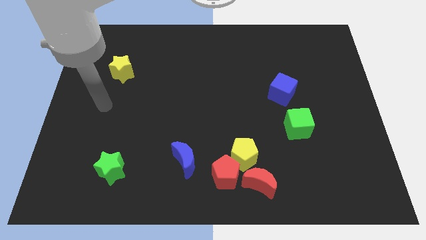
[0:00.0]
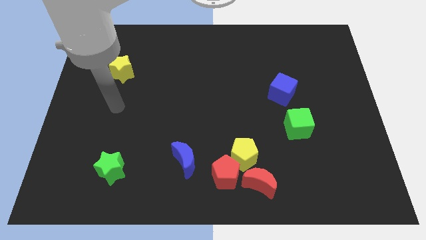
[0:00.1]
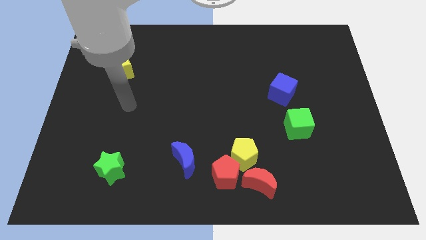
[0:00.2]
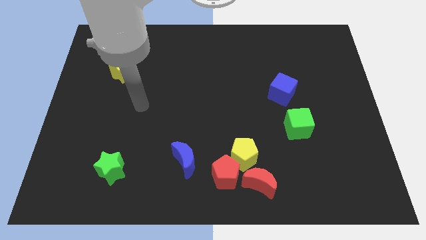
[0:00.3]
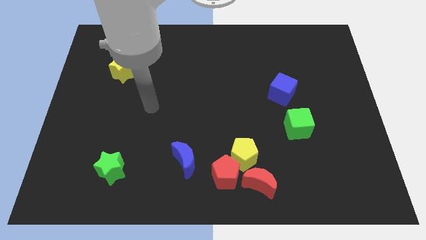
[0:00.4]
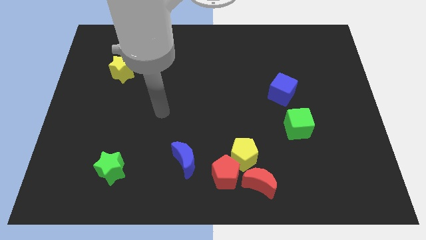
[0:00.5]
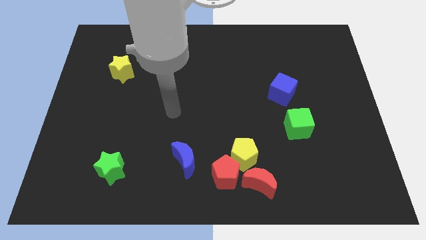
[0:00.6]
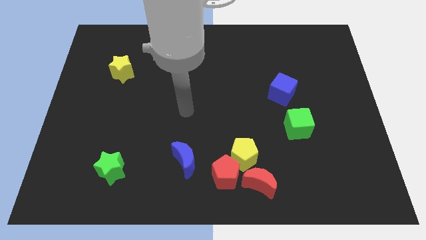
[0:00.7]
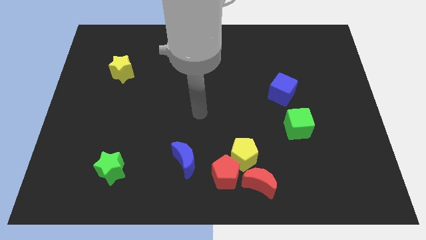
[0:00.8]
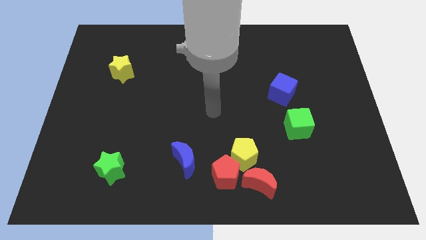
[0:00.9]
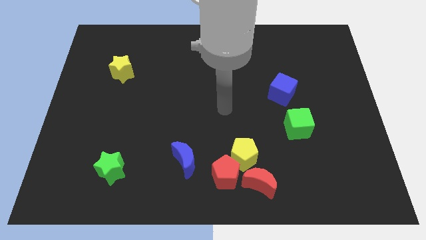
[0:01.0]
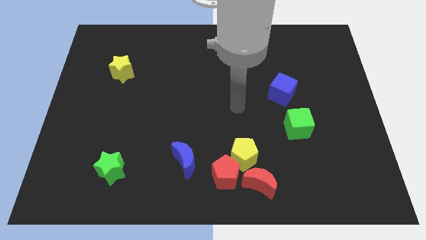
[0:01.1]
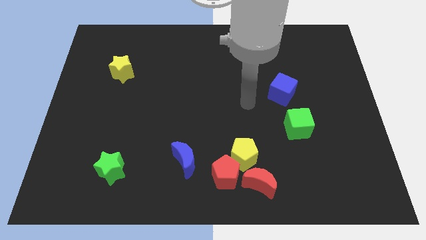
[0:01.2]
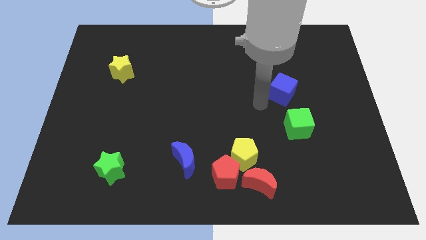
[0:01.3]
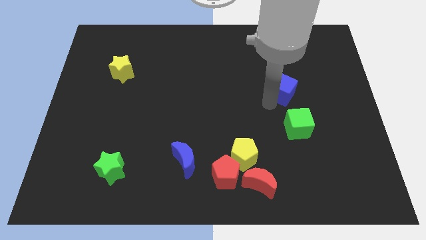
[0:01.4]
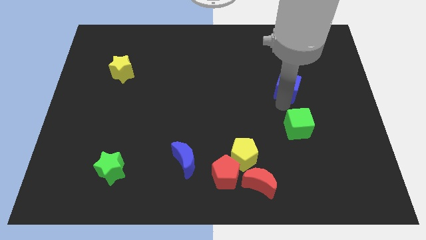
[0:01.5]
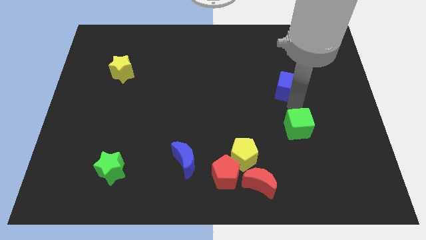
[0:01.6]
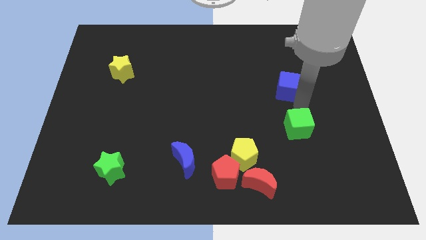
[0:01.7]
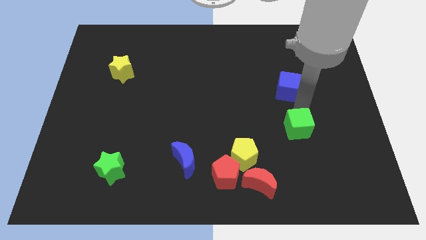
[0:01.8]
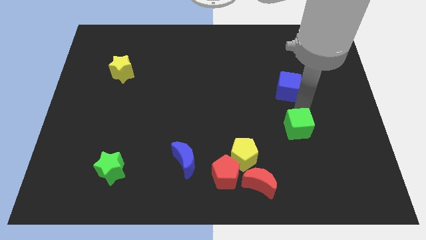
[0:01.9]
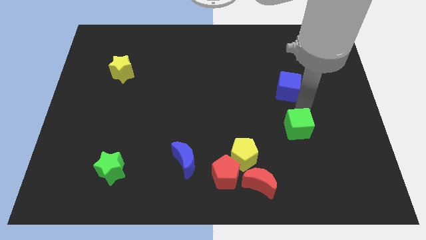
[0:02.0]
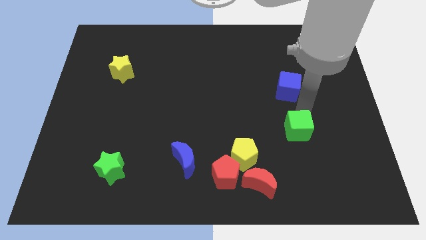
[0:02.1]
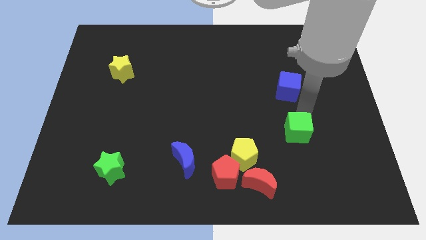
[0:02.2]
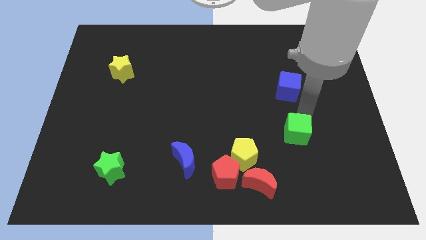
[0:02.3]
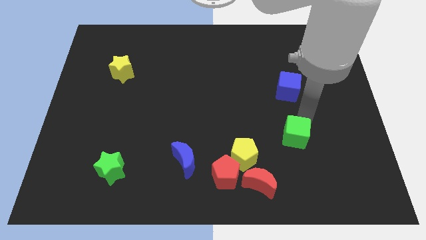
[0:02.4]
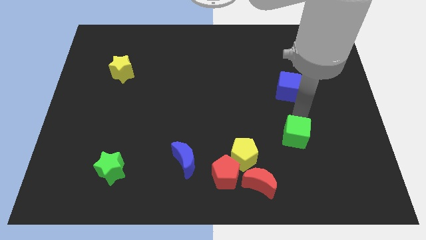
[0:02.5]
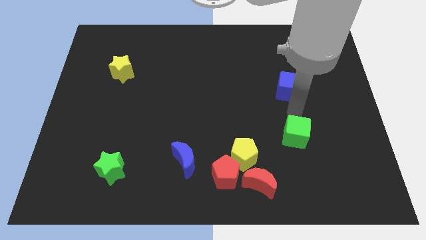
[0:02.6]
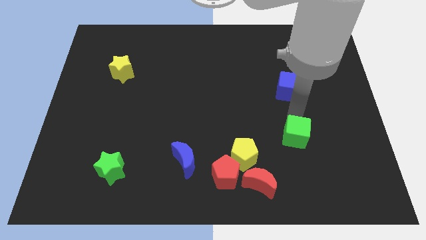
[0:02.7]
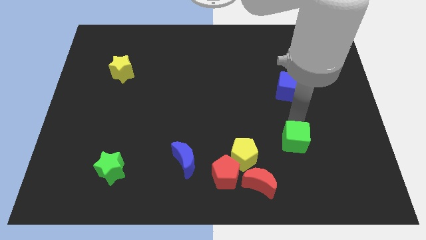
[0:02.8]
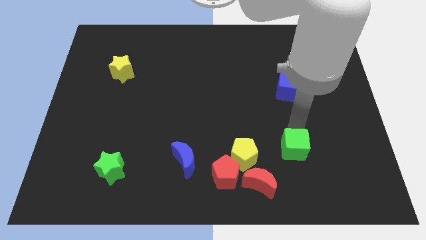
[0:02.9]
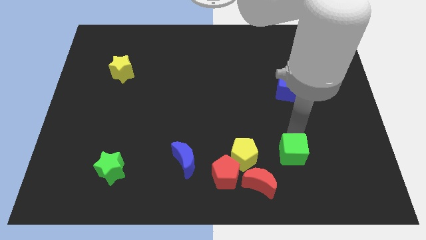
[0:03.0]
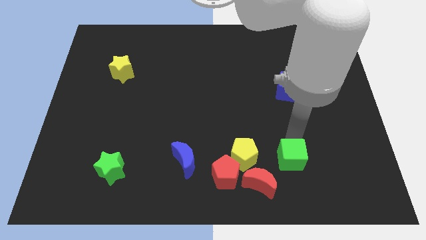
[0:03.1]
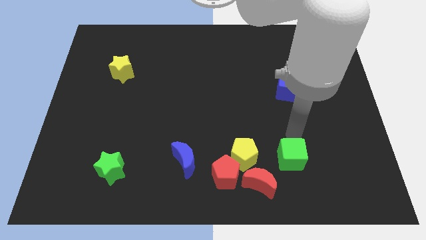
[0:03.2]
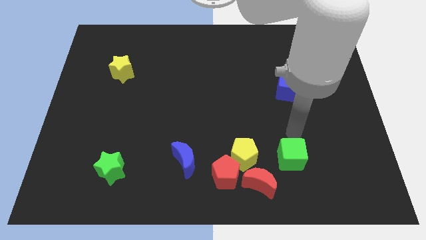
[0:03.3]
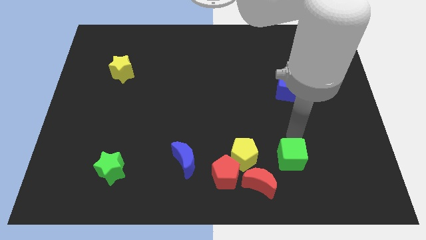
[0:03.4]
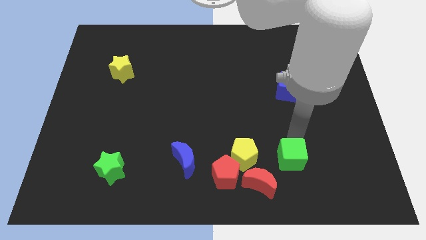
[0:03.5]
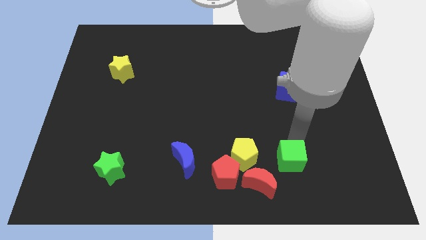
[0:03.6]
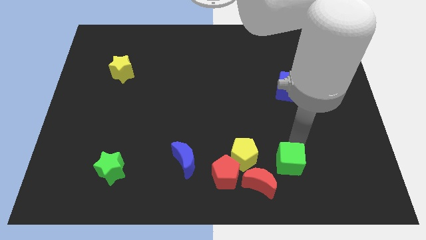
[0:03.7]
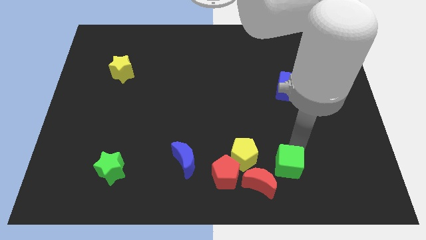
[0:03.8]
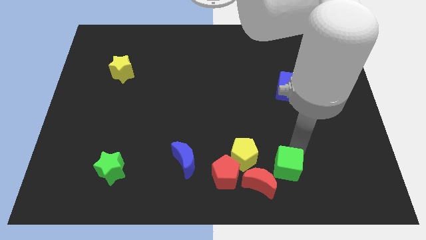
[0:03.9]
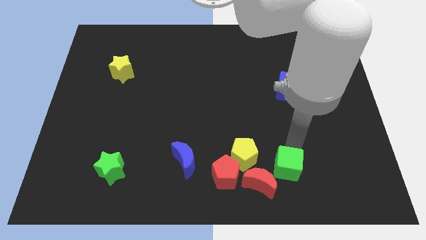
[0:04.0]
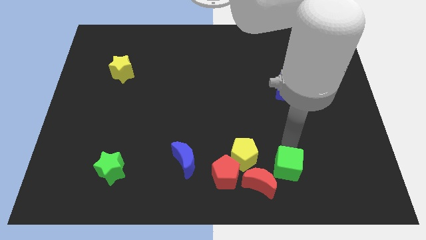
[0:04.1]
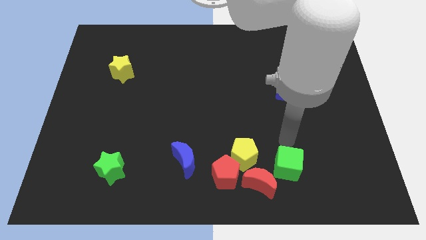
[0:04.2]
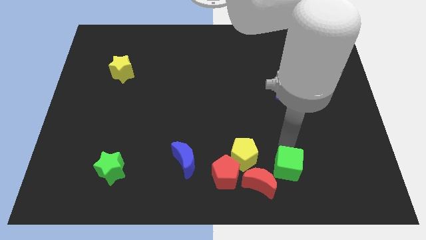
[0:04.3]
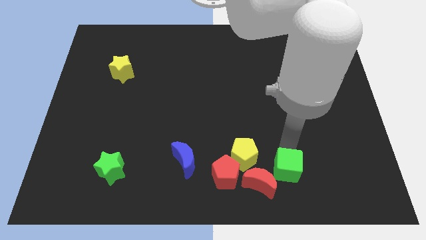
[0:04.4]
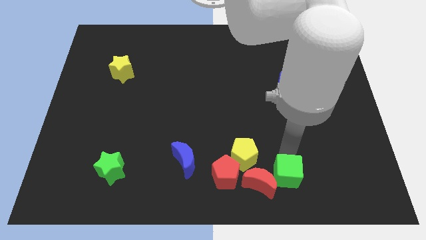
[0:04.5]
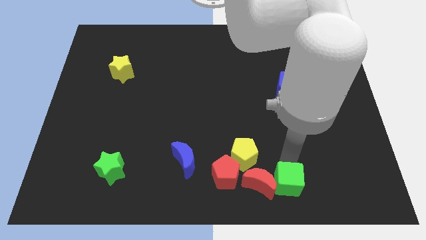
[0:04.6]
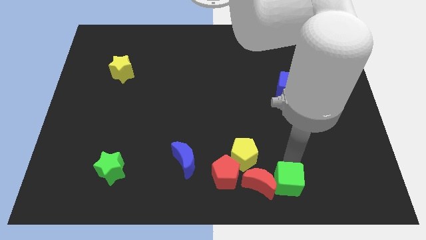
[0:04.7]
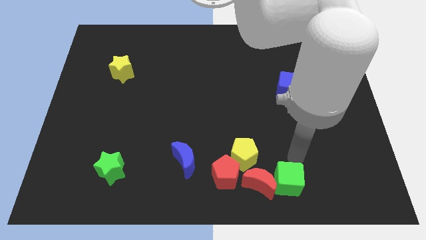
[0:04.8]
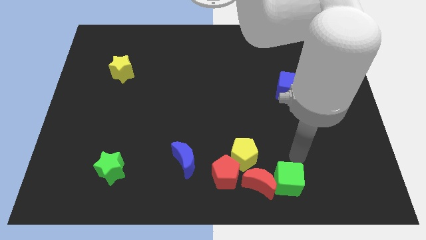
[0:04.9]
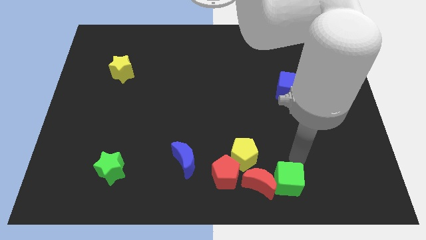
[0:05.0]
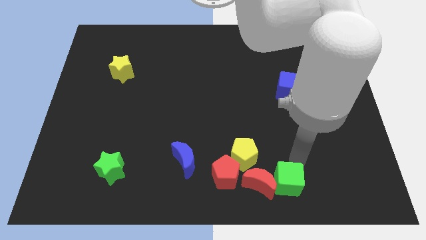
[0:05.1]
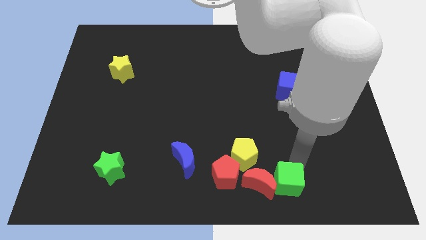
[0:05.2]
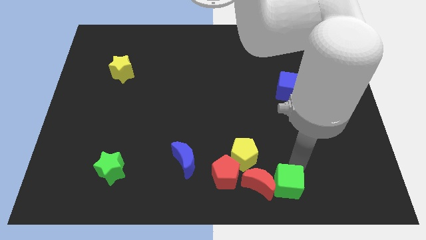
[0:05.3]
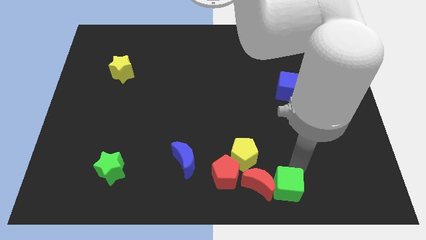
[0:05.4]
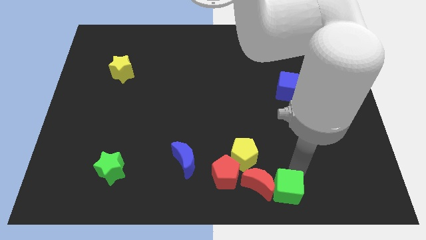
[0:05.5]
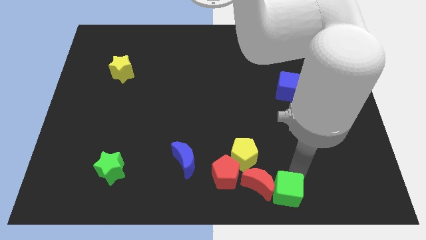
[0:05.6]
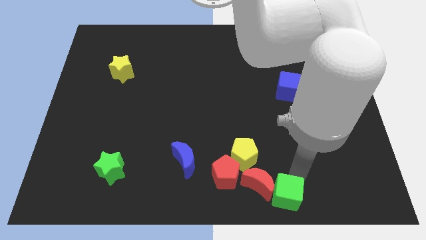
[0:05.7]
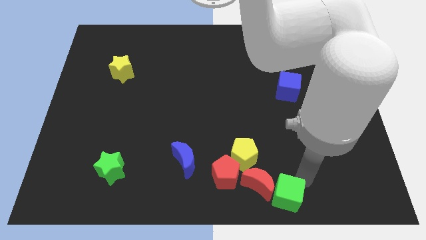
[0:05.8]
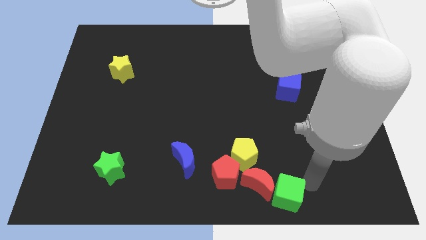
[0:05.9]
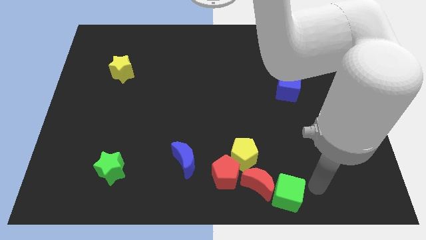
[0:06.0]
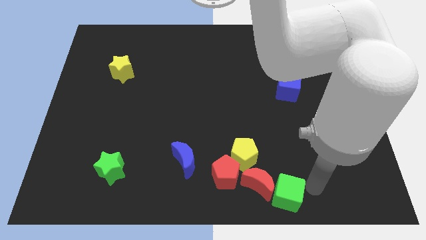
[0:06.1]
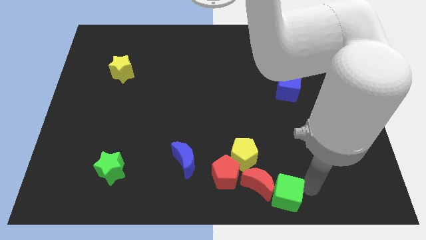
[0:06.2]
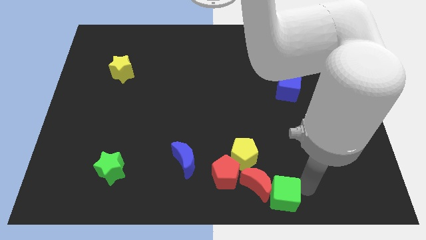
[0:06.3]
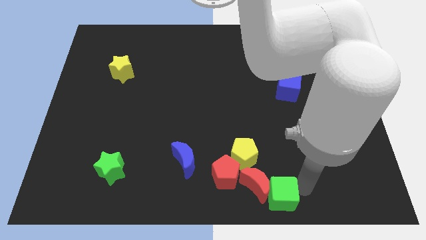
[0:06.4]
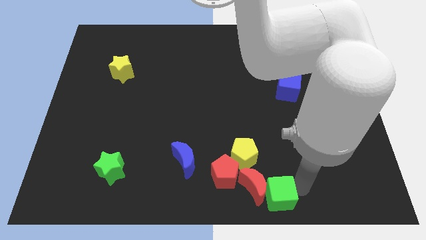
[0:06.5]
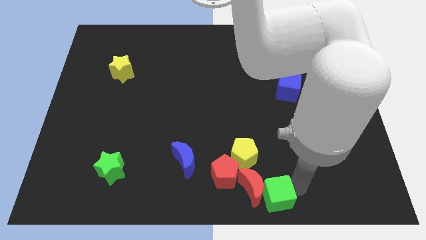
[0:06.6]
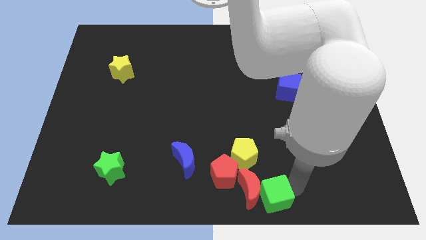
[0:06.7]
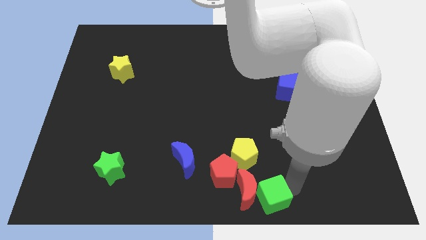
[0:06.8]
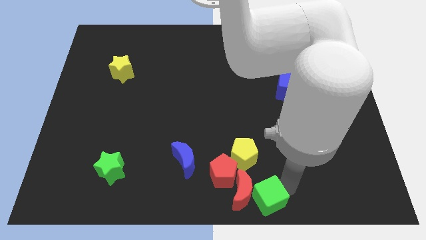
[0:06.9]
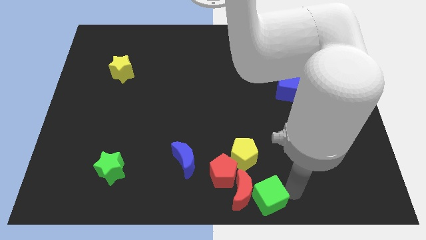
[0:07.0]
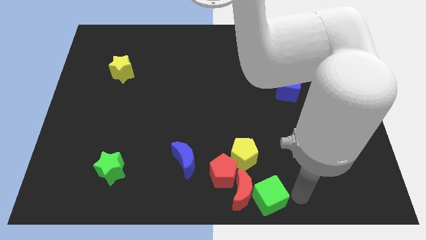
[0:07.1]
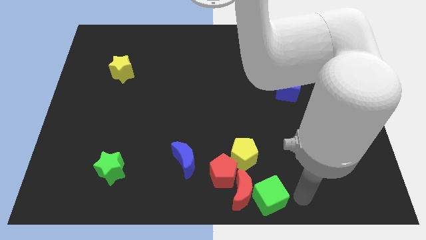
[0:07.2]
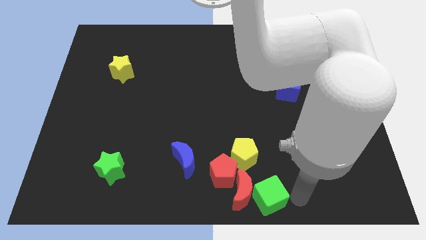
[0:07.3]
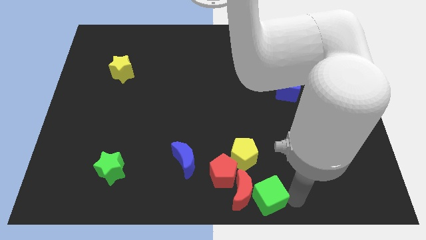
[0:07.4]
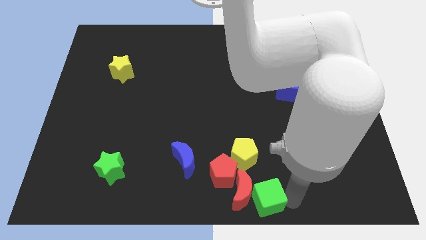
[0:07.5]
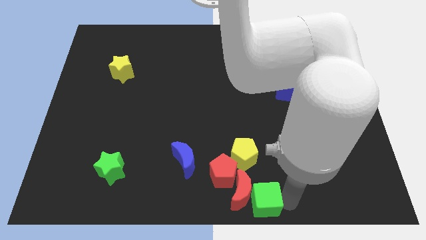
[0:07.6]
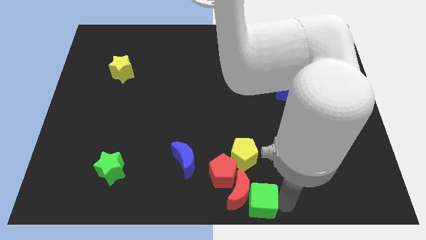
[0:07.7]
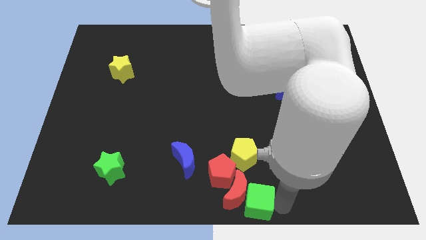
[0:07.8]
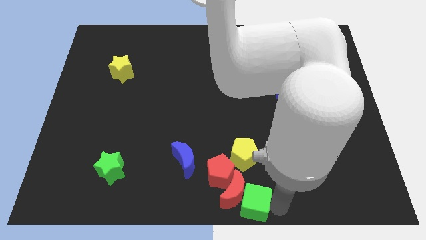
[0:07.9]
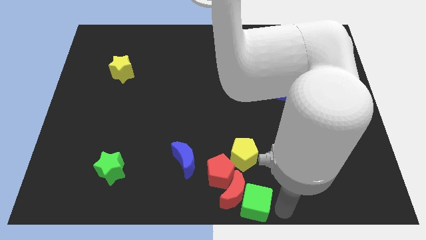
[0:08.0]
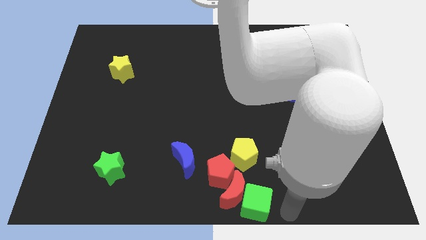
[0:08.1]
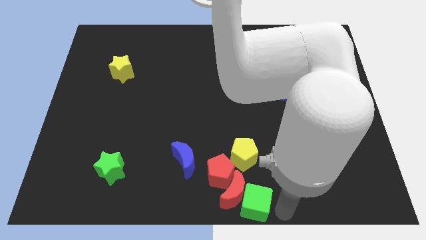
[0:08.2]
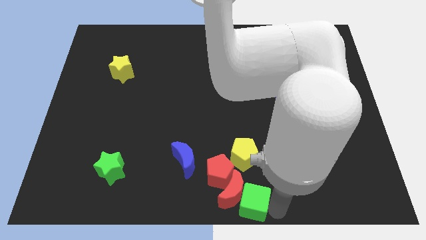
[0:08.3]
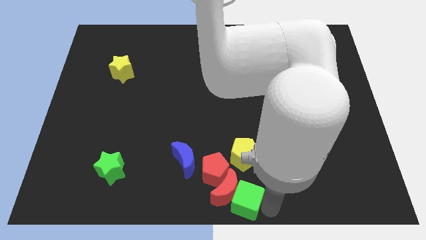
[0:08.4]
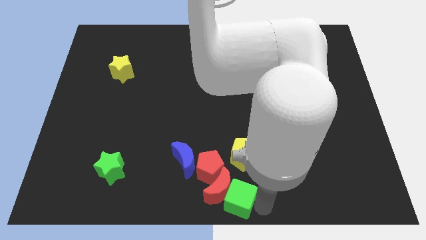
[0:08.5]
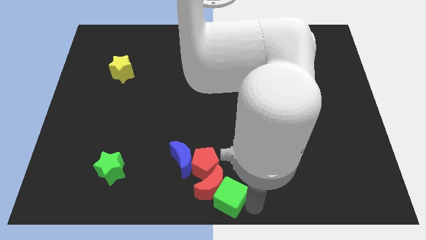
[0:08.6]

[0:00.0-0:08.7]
move the green cube to the bottom right side of the blue moon
